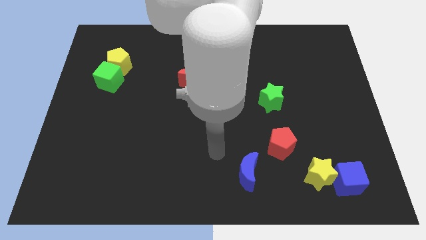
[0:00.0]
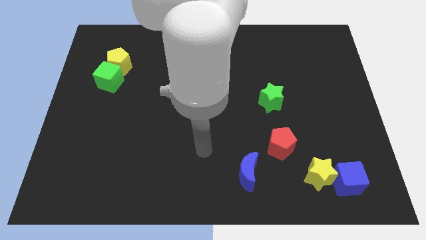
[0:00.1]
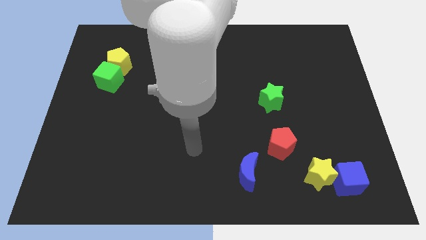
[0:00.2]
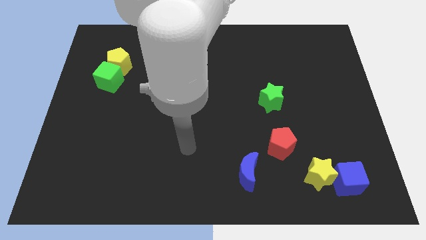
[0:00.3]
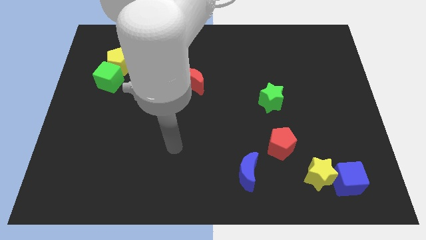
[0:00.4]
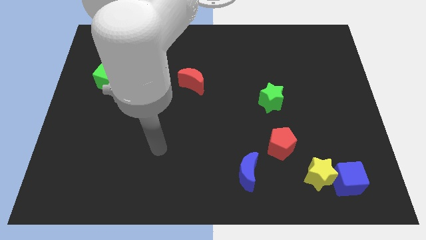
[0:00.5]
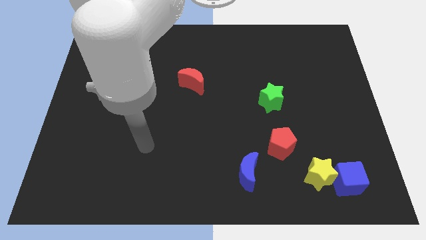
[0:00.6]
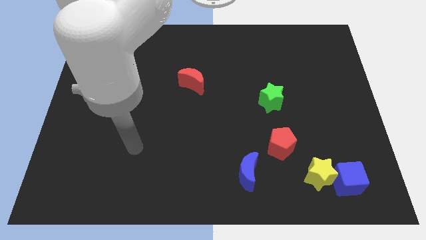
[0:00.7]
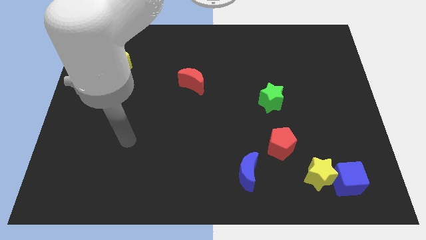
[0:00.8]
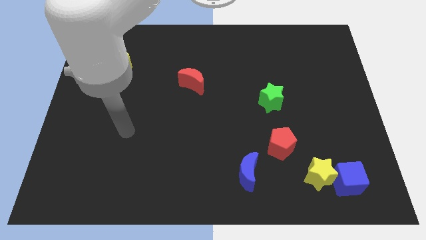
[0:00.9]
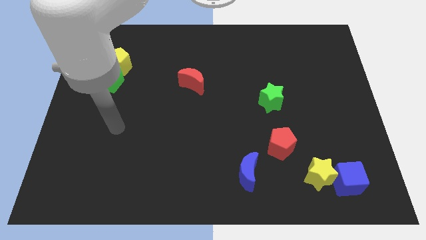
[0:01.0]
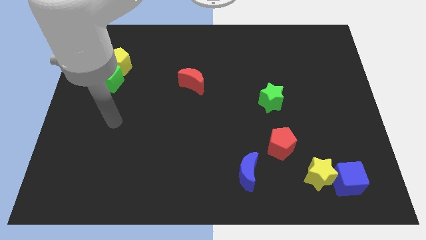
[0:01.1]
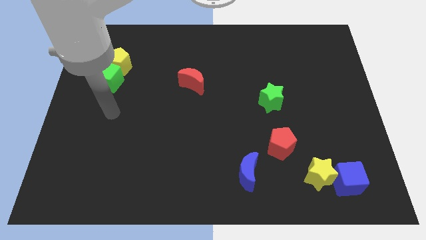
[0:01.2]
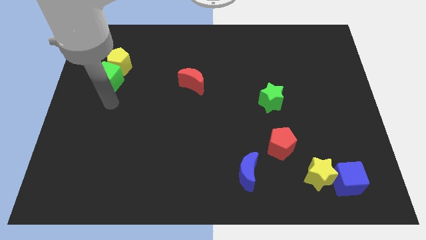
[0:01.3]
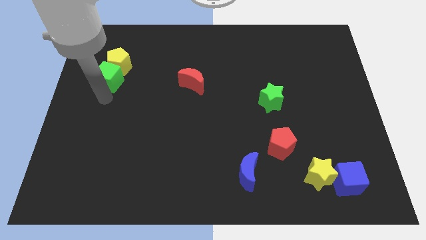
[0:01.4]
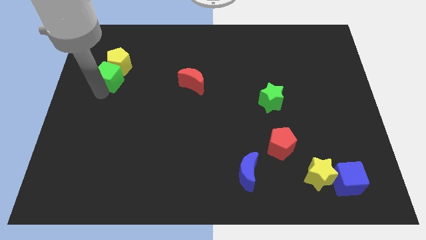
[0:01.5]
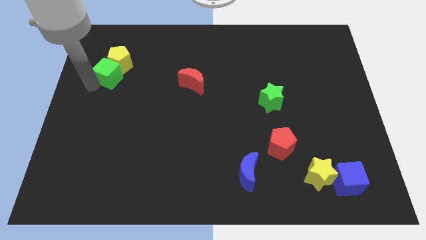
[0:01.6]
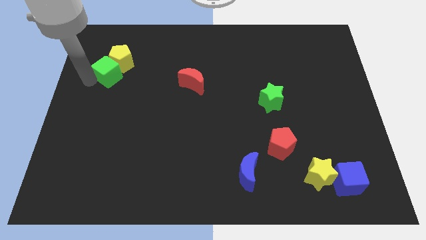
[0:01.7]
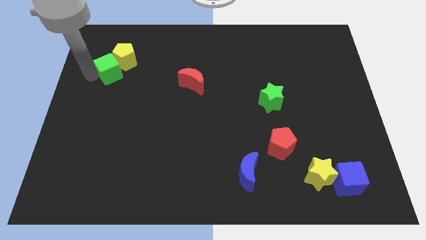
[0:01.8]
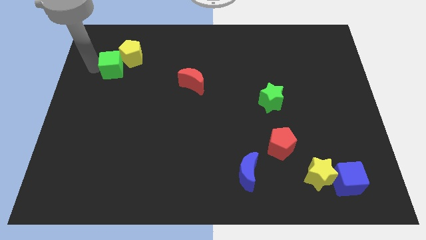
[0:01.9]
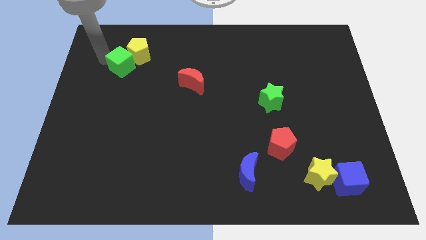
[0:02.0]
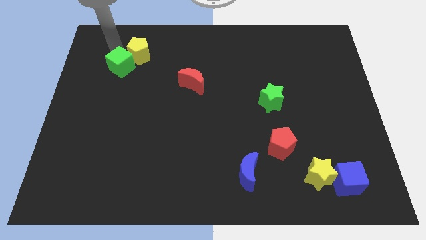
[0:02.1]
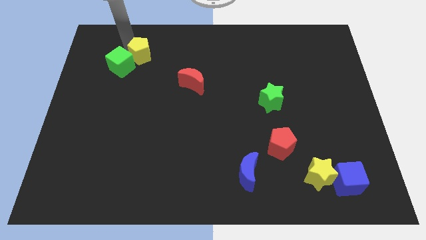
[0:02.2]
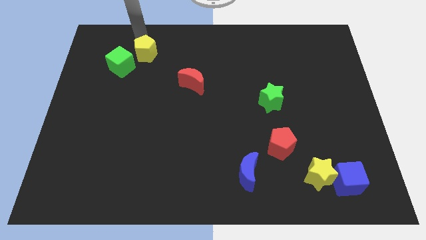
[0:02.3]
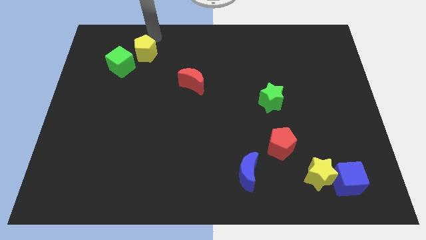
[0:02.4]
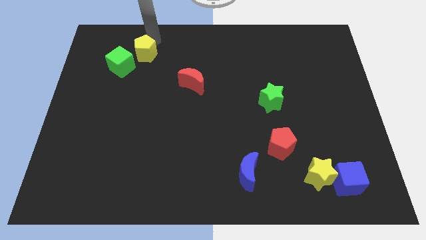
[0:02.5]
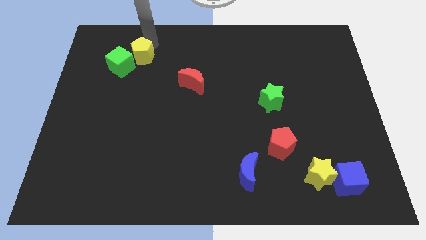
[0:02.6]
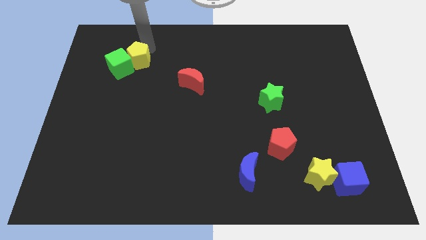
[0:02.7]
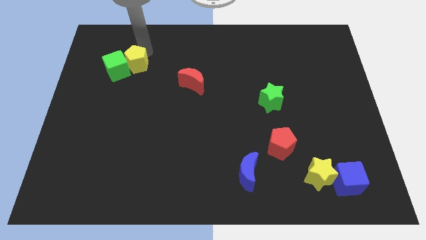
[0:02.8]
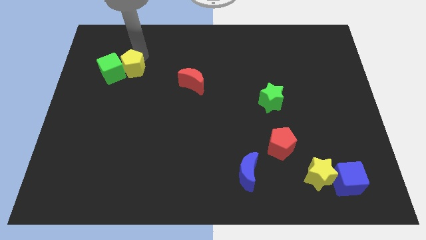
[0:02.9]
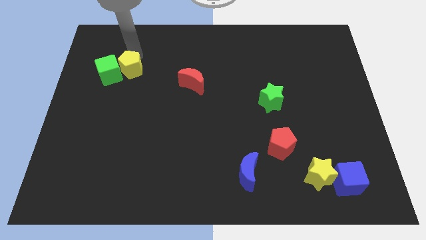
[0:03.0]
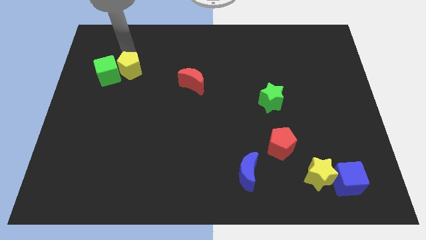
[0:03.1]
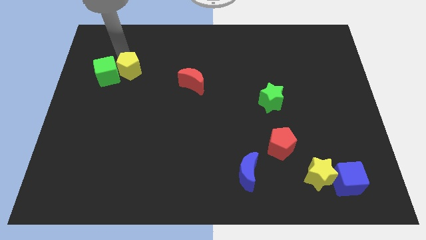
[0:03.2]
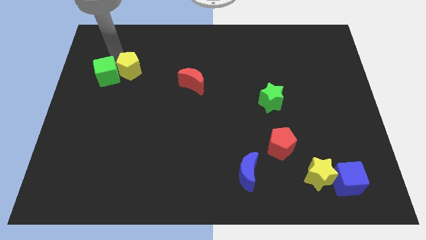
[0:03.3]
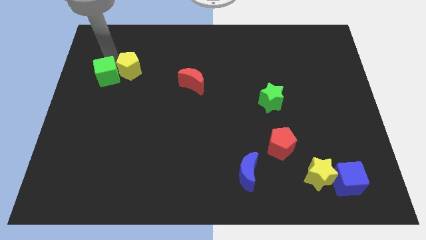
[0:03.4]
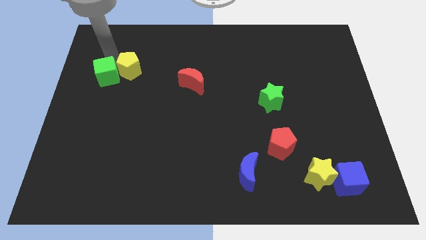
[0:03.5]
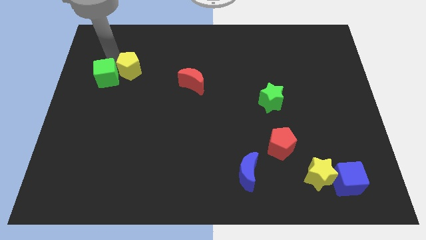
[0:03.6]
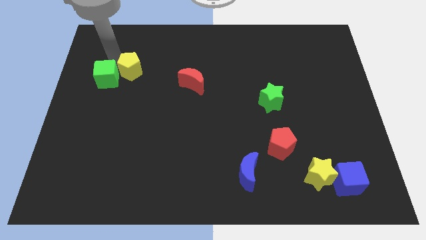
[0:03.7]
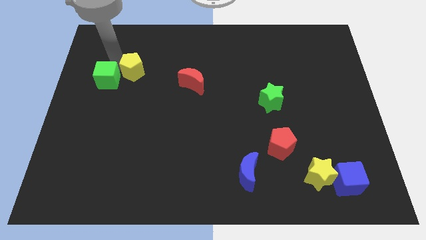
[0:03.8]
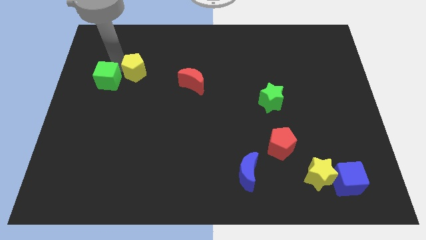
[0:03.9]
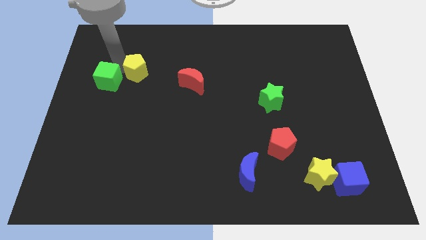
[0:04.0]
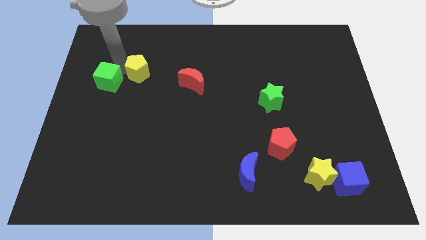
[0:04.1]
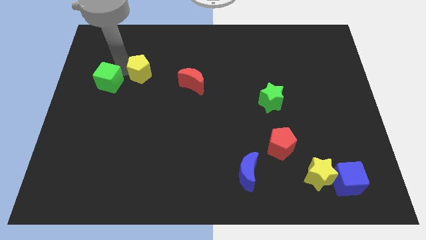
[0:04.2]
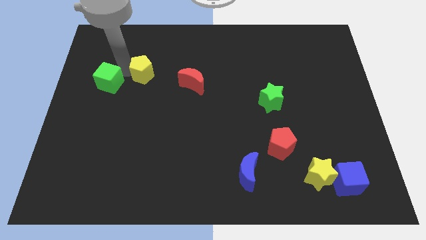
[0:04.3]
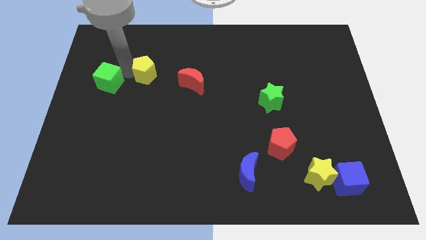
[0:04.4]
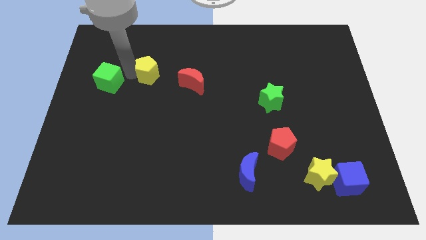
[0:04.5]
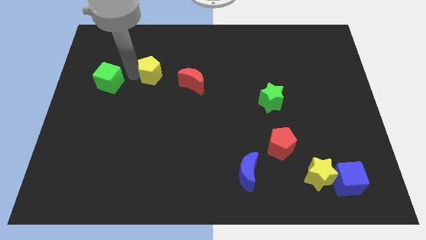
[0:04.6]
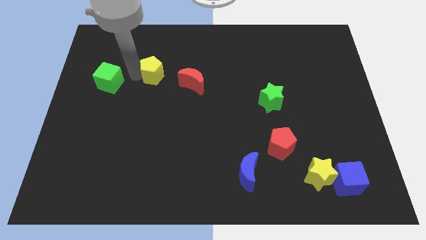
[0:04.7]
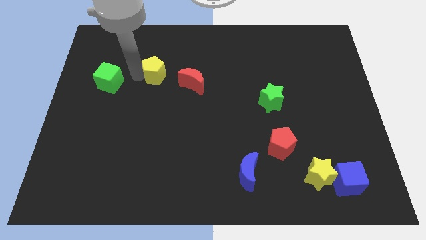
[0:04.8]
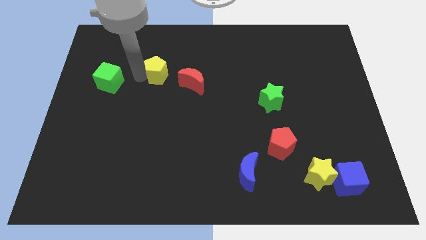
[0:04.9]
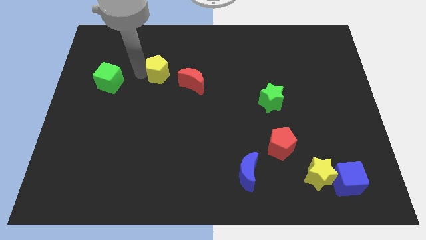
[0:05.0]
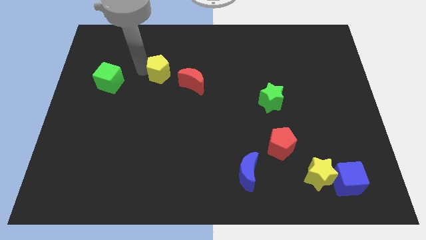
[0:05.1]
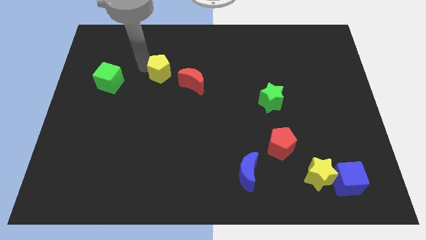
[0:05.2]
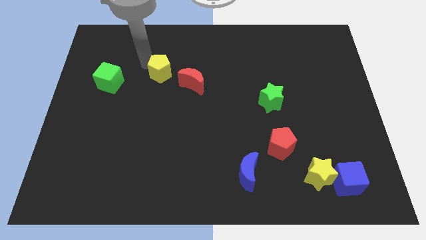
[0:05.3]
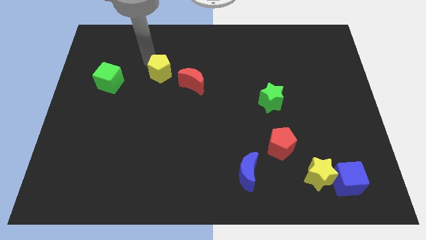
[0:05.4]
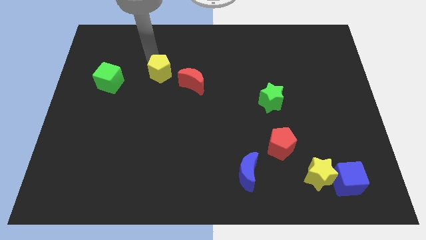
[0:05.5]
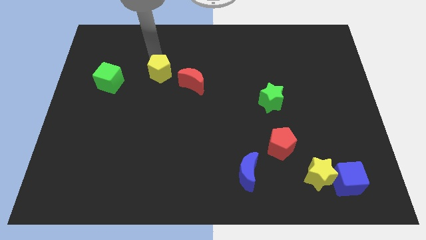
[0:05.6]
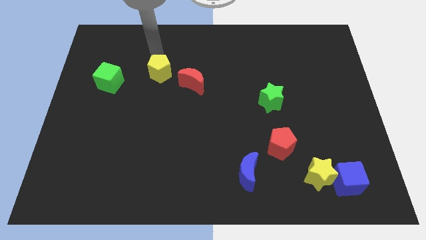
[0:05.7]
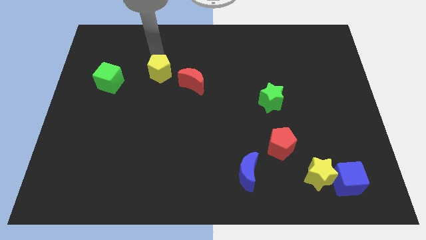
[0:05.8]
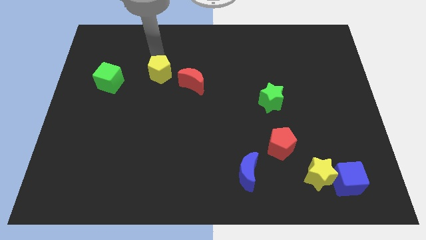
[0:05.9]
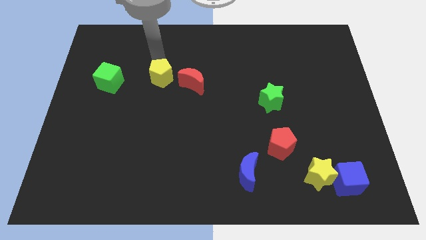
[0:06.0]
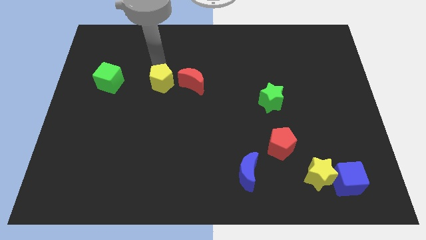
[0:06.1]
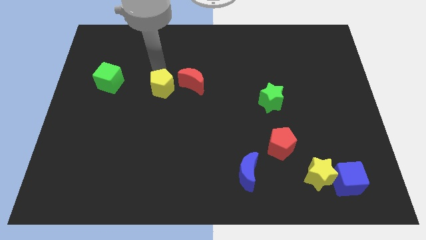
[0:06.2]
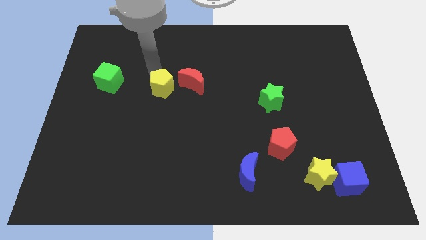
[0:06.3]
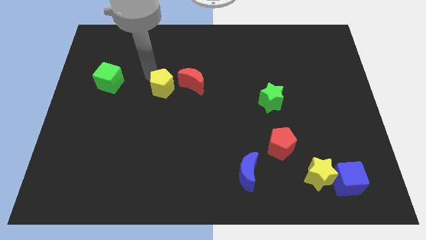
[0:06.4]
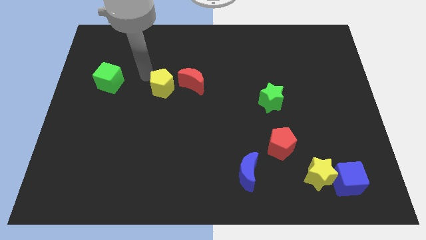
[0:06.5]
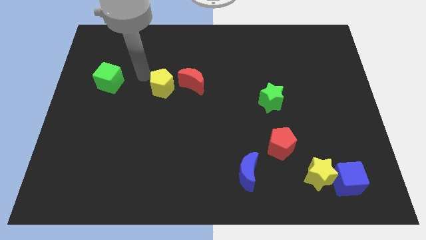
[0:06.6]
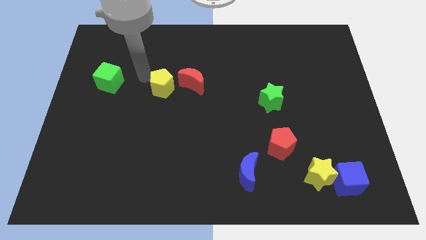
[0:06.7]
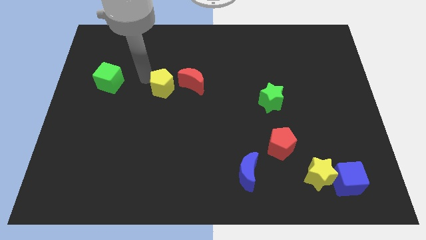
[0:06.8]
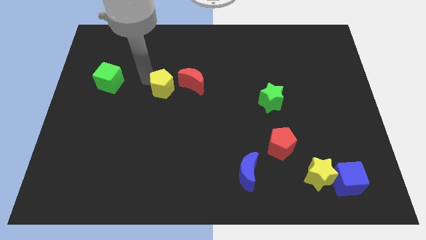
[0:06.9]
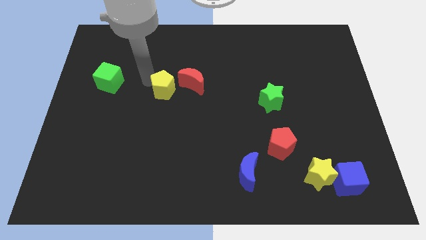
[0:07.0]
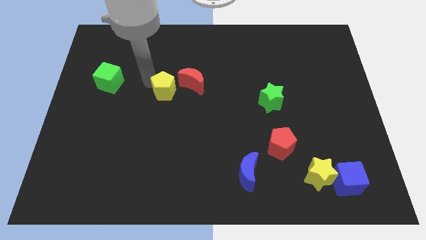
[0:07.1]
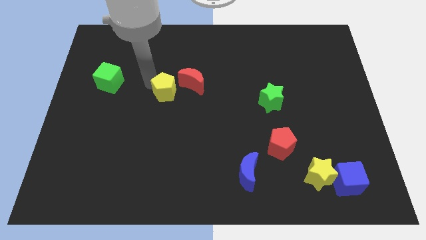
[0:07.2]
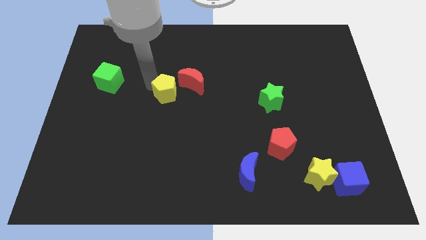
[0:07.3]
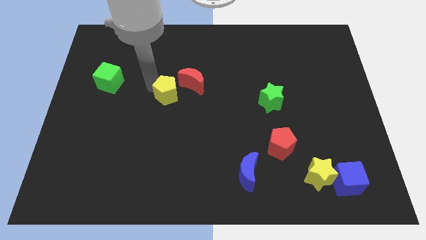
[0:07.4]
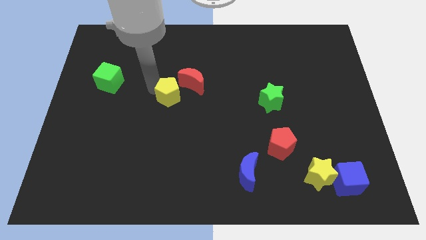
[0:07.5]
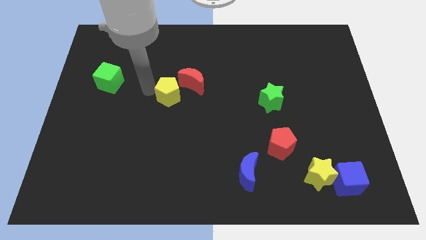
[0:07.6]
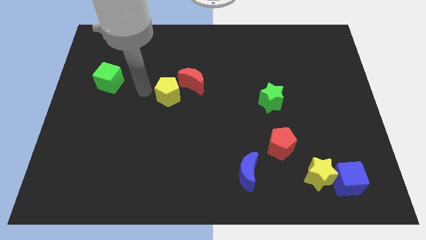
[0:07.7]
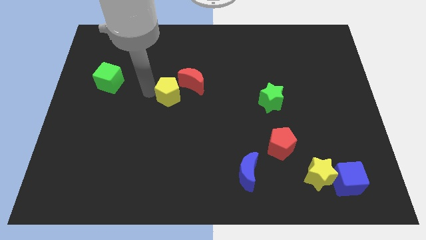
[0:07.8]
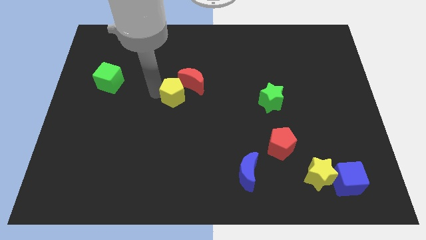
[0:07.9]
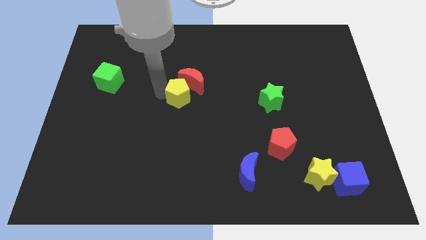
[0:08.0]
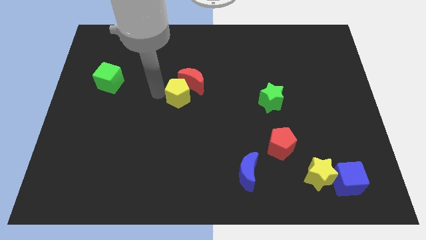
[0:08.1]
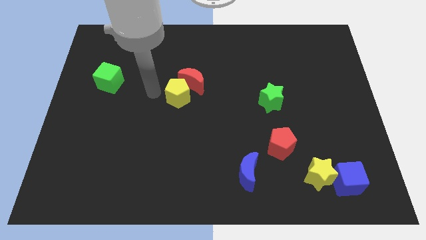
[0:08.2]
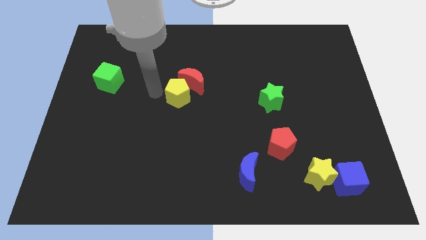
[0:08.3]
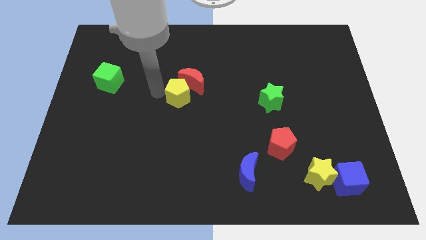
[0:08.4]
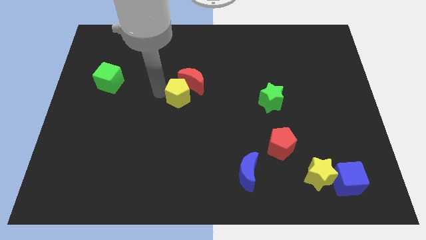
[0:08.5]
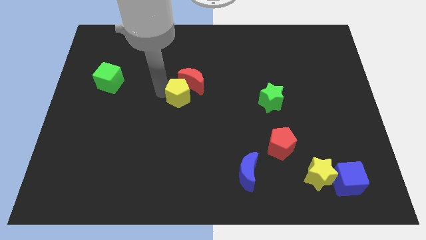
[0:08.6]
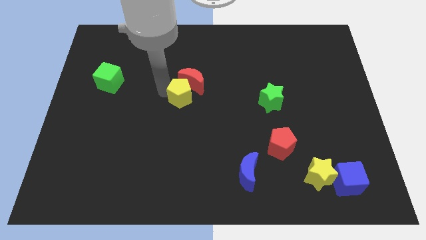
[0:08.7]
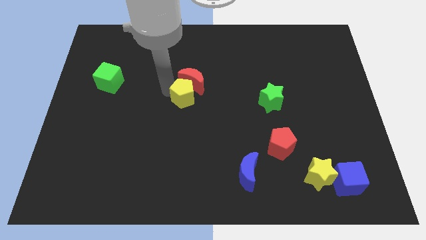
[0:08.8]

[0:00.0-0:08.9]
slide the yellow pentagon diagonally down and to the right of the red moon
